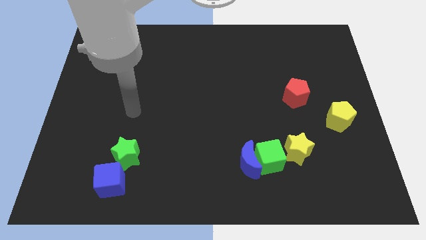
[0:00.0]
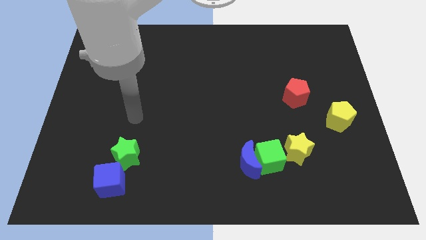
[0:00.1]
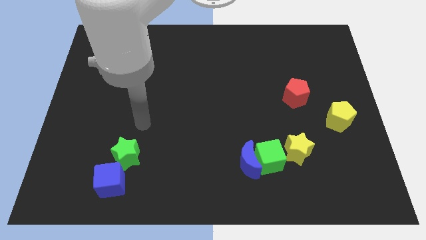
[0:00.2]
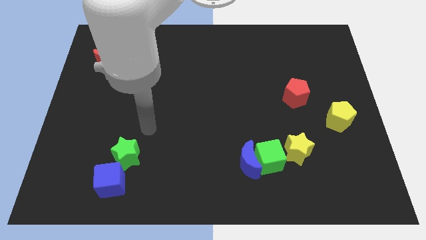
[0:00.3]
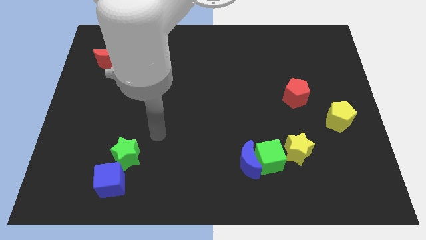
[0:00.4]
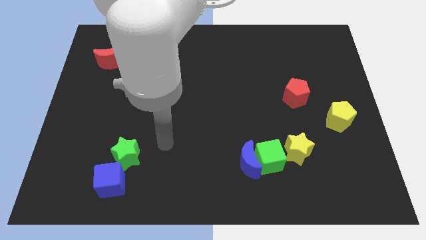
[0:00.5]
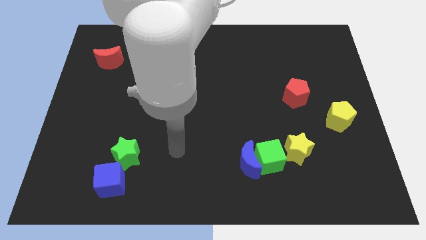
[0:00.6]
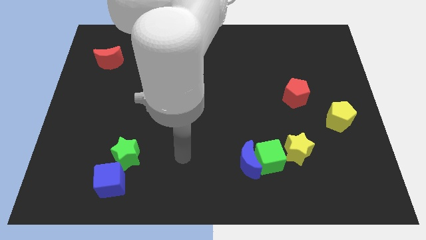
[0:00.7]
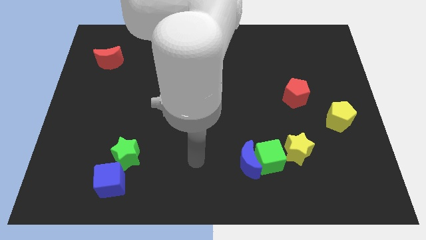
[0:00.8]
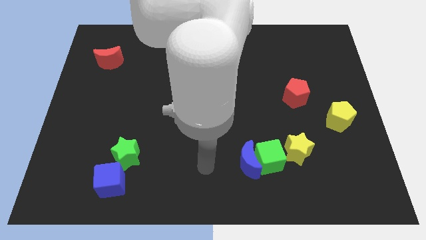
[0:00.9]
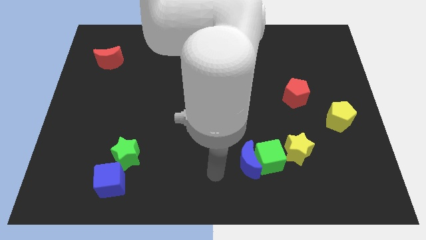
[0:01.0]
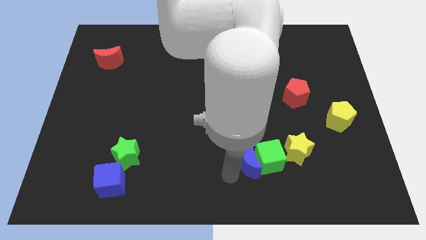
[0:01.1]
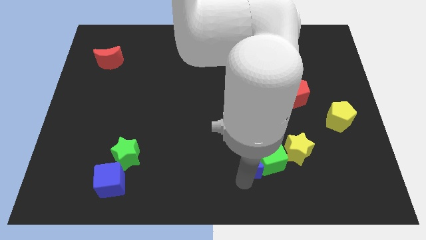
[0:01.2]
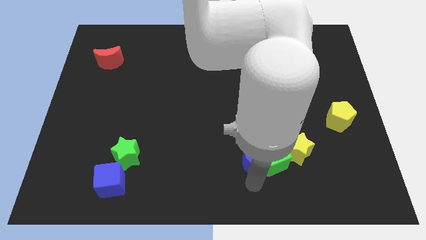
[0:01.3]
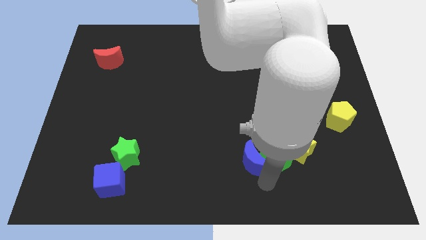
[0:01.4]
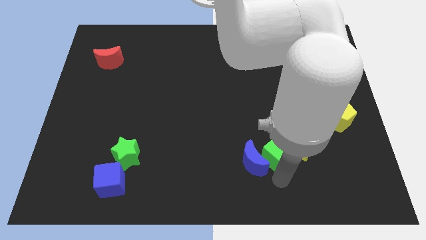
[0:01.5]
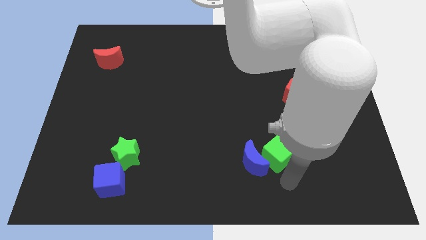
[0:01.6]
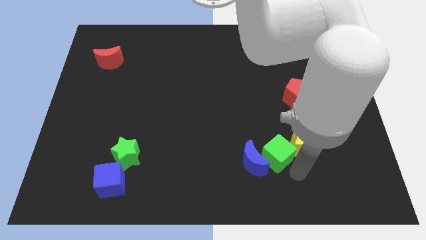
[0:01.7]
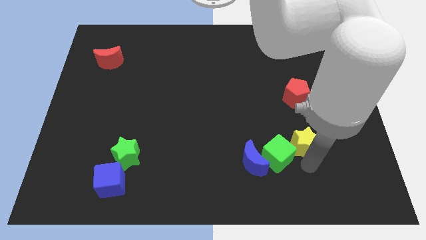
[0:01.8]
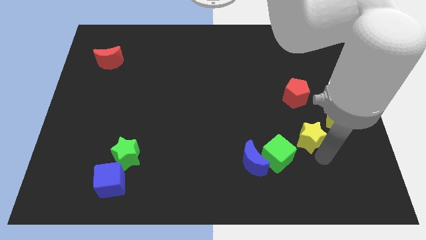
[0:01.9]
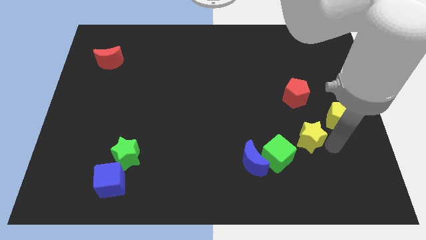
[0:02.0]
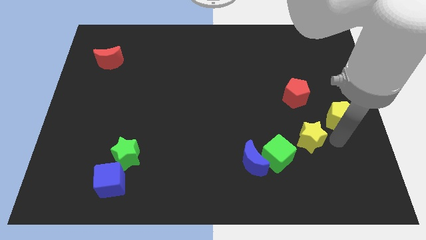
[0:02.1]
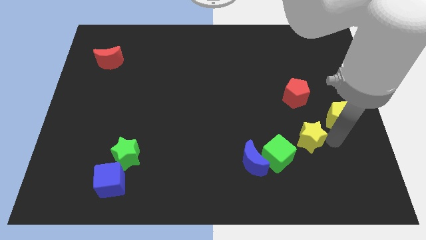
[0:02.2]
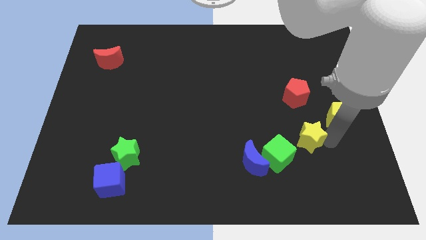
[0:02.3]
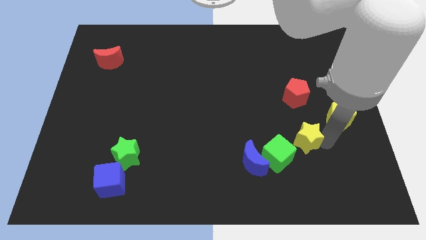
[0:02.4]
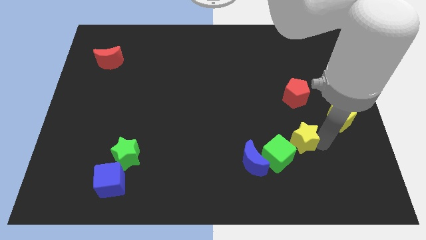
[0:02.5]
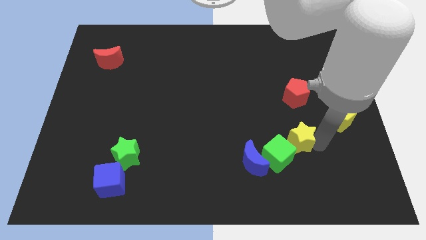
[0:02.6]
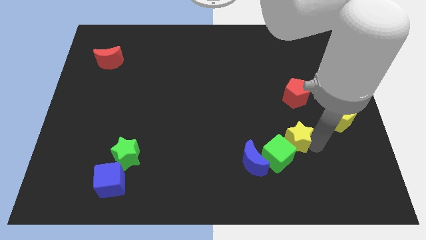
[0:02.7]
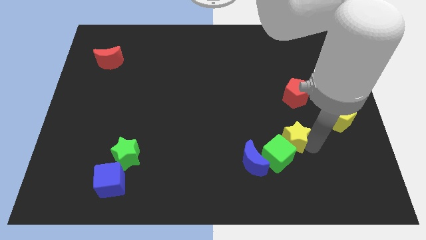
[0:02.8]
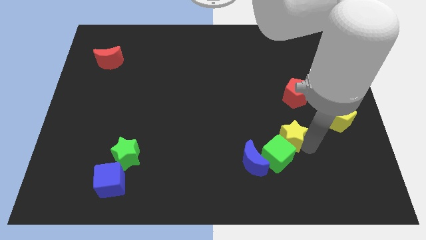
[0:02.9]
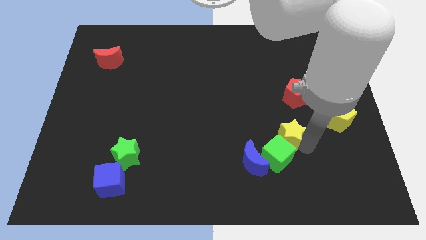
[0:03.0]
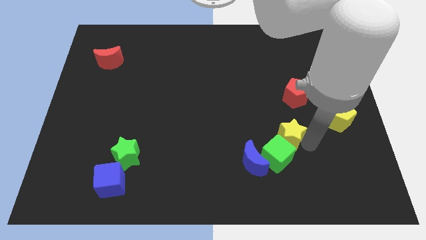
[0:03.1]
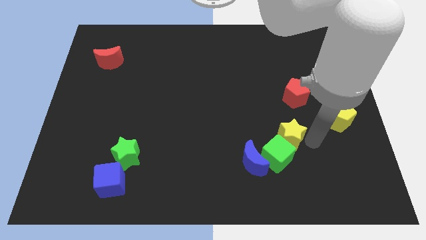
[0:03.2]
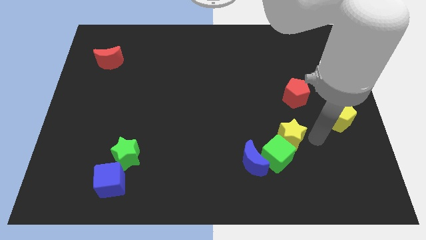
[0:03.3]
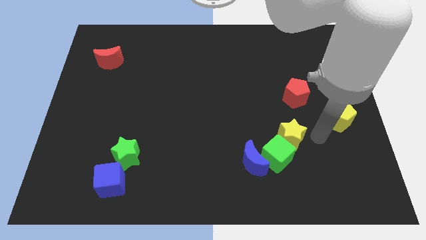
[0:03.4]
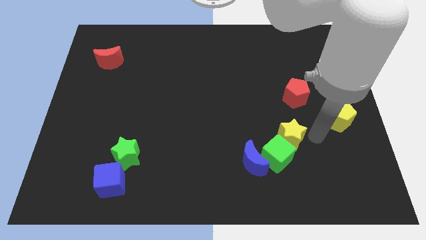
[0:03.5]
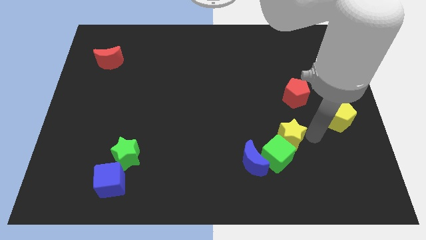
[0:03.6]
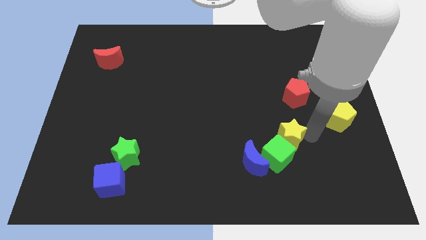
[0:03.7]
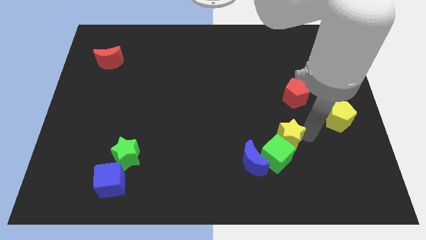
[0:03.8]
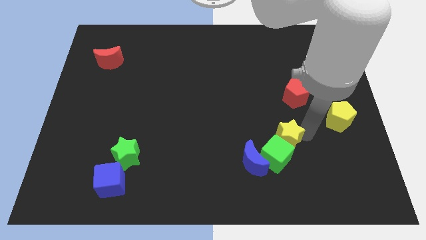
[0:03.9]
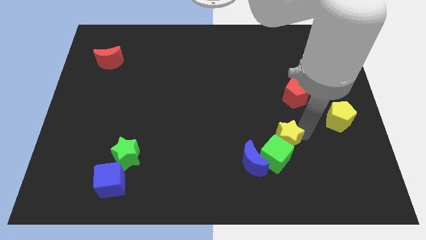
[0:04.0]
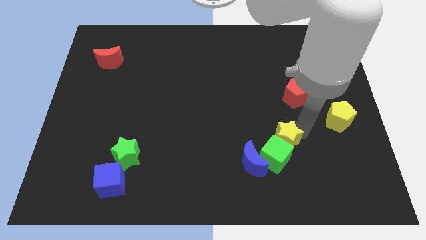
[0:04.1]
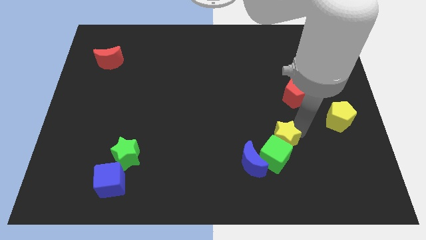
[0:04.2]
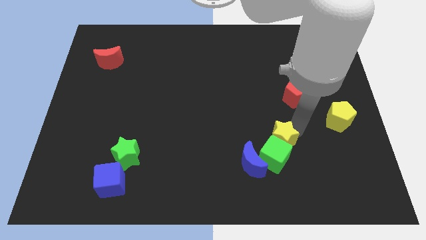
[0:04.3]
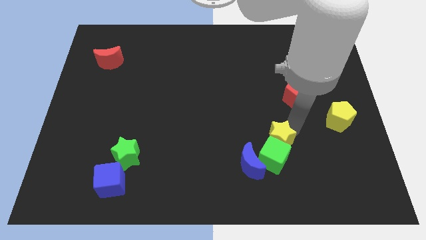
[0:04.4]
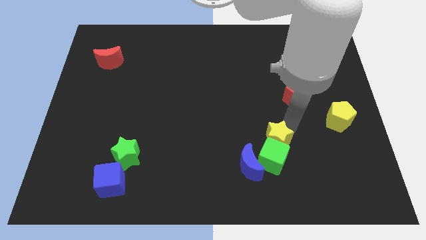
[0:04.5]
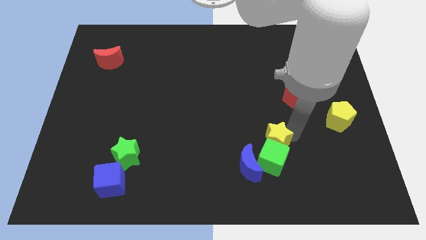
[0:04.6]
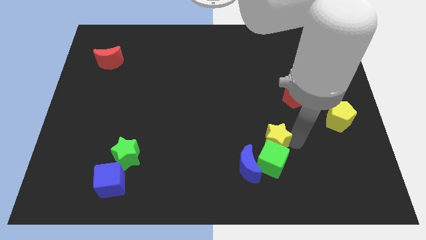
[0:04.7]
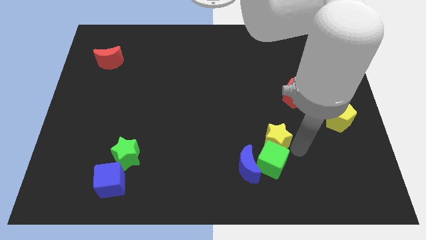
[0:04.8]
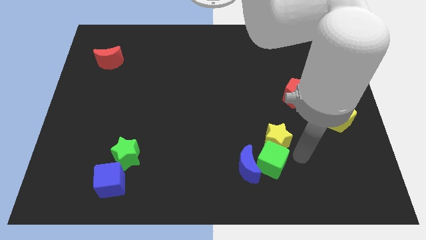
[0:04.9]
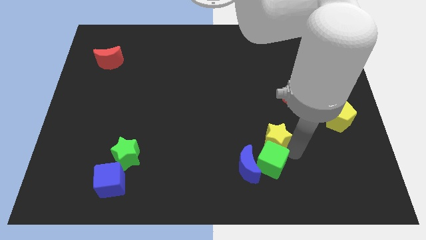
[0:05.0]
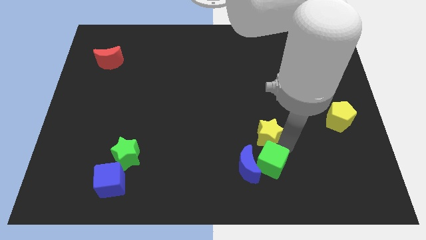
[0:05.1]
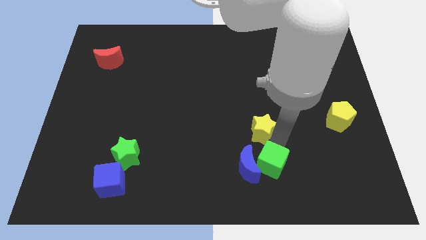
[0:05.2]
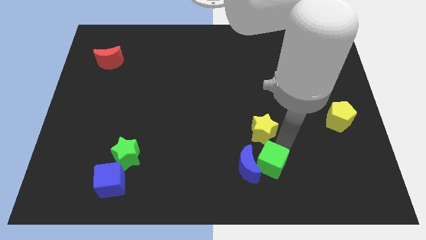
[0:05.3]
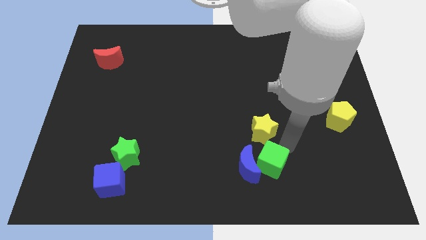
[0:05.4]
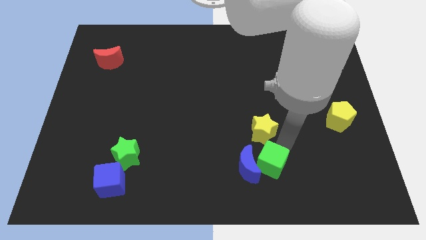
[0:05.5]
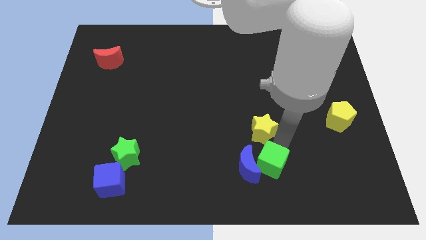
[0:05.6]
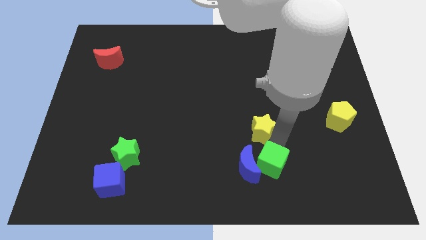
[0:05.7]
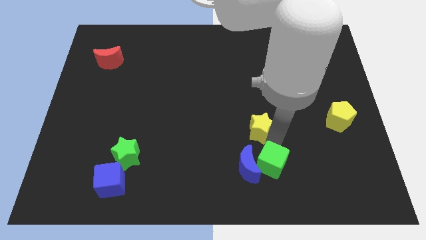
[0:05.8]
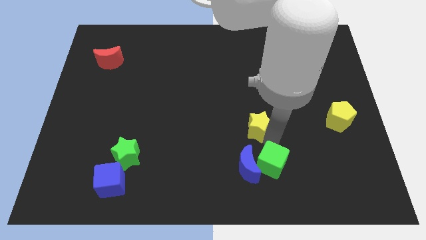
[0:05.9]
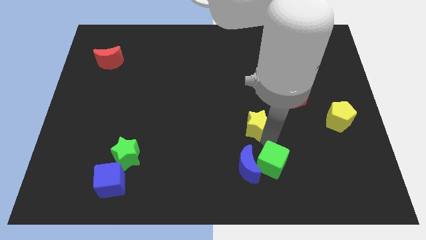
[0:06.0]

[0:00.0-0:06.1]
push the yellow star to the center of the board

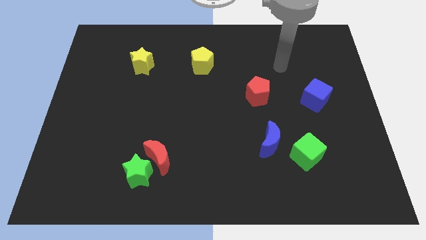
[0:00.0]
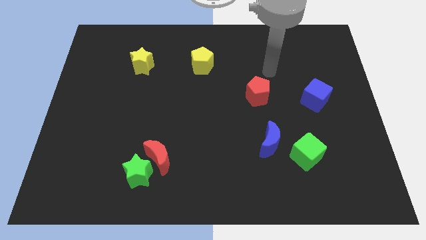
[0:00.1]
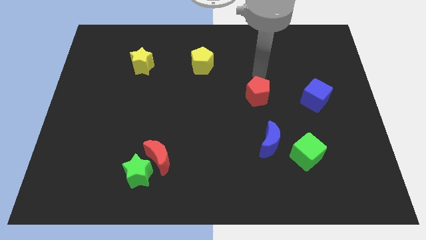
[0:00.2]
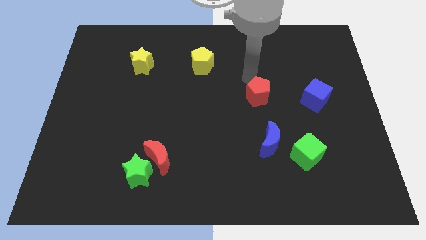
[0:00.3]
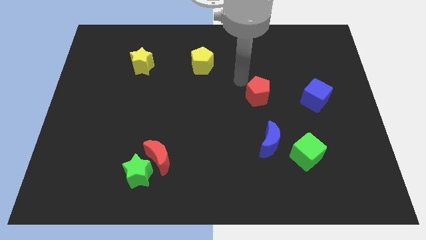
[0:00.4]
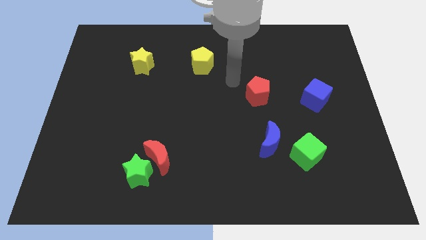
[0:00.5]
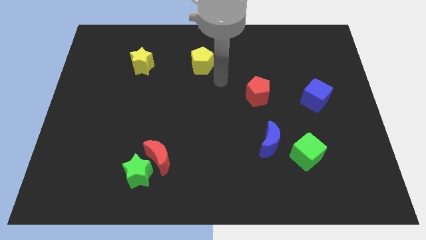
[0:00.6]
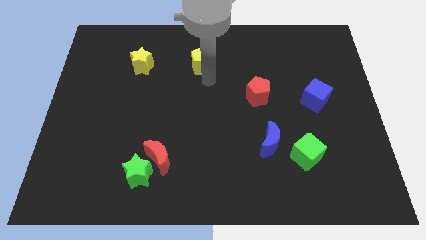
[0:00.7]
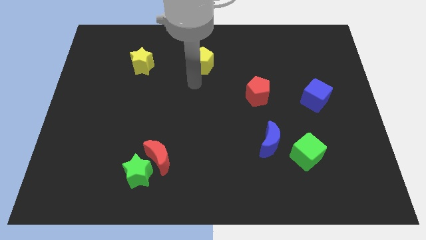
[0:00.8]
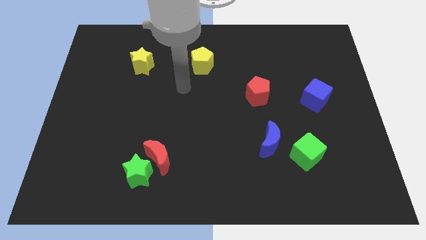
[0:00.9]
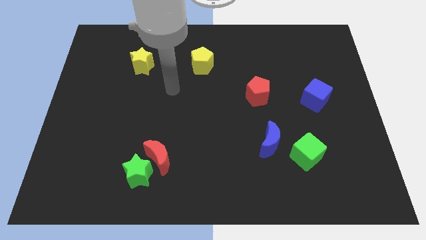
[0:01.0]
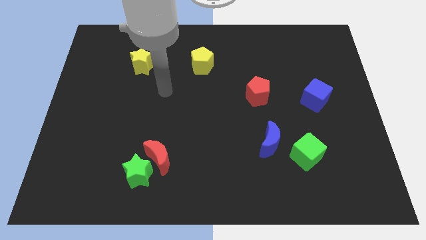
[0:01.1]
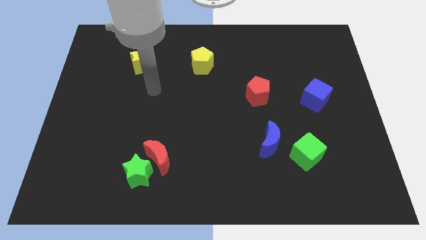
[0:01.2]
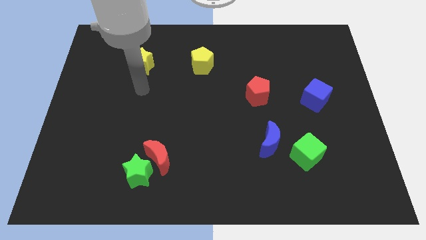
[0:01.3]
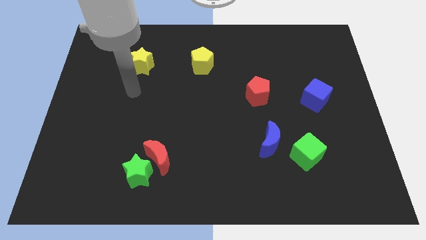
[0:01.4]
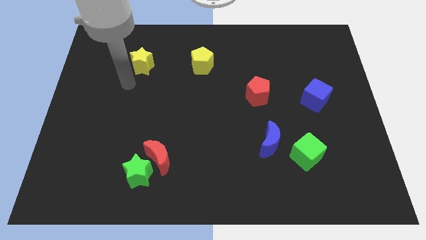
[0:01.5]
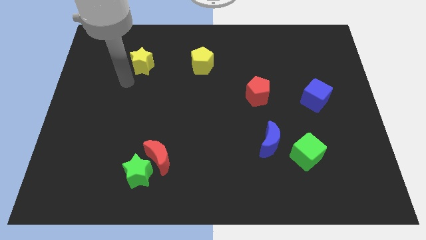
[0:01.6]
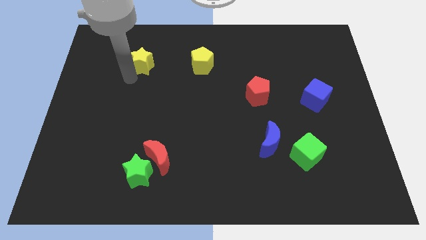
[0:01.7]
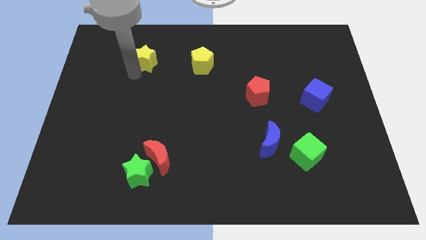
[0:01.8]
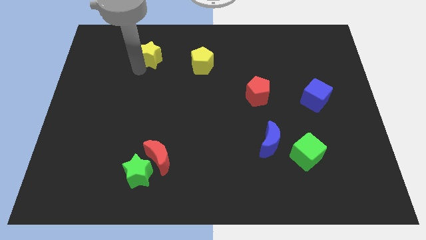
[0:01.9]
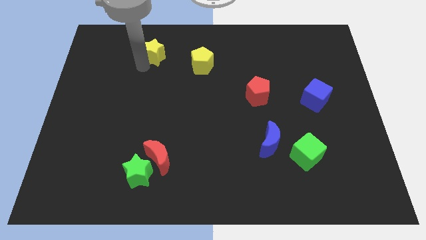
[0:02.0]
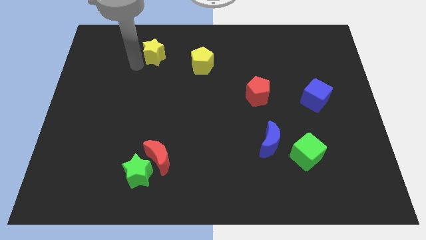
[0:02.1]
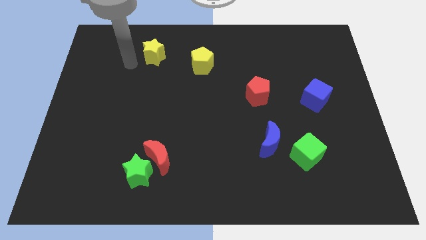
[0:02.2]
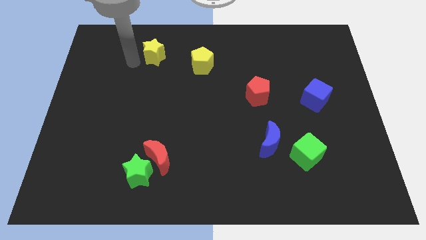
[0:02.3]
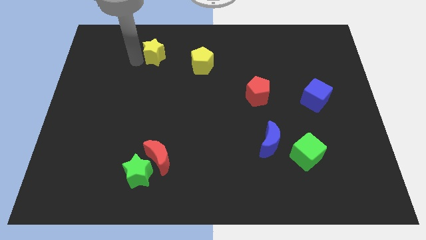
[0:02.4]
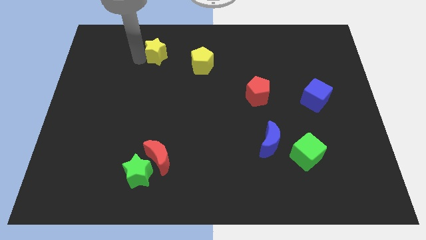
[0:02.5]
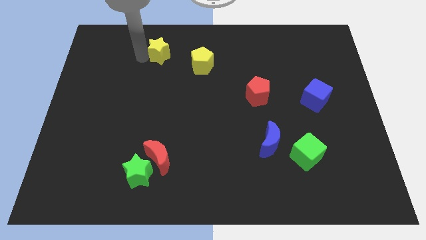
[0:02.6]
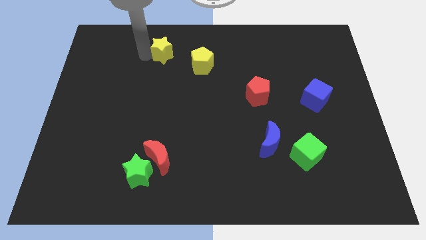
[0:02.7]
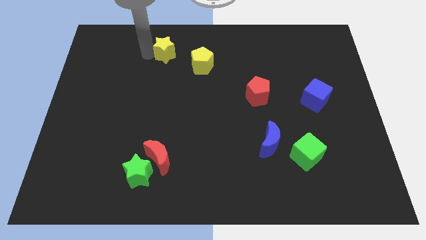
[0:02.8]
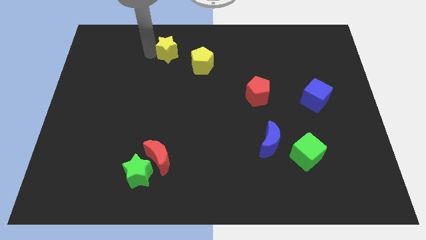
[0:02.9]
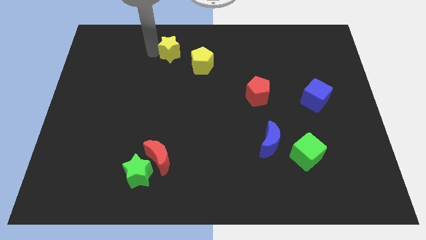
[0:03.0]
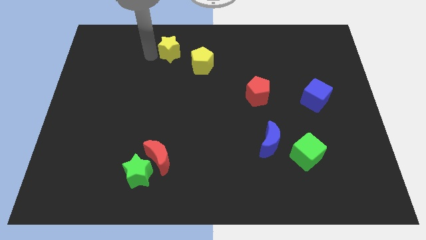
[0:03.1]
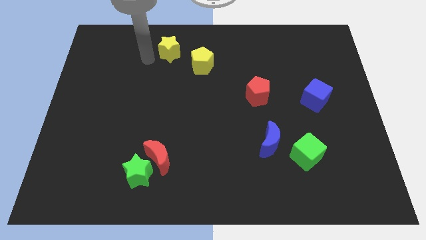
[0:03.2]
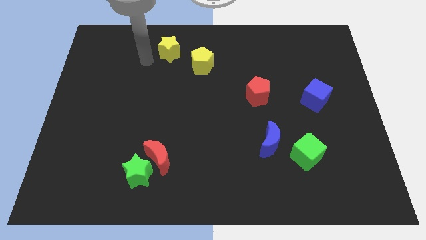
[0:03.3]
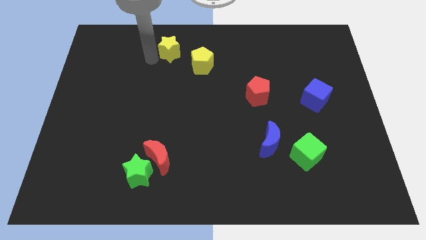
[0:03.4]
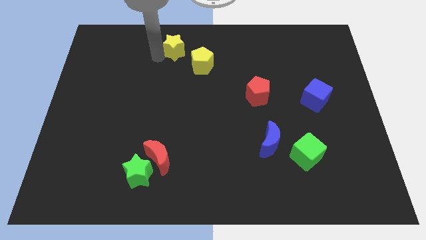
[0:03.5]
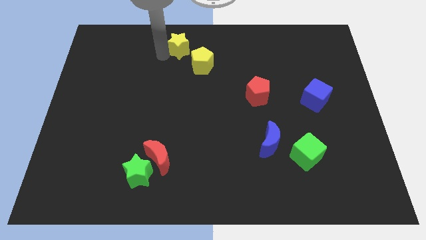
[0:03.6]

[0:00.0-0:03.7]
push the yellow star to the top
